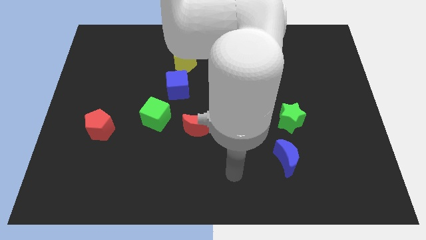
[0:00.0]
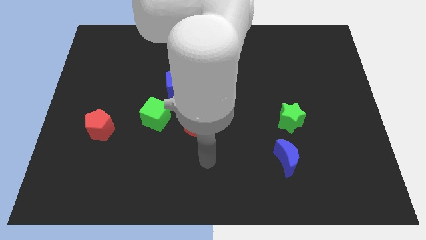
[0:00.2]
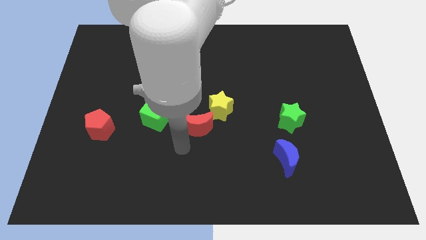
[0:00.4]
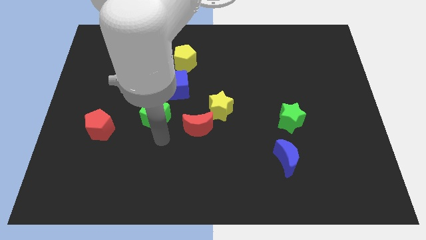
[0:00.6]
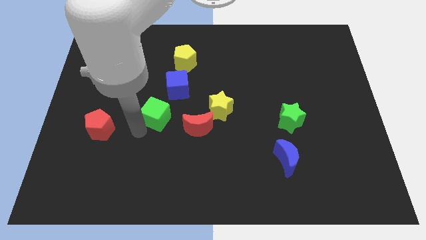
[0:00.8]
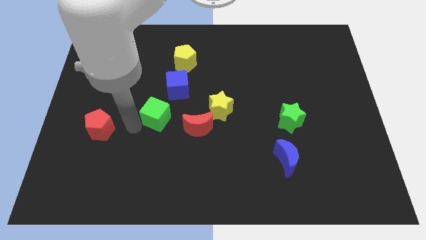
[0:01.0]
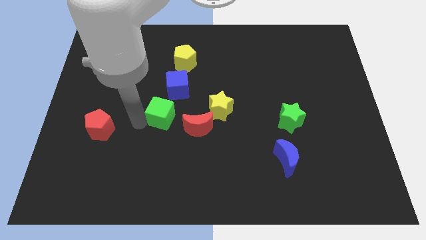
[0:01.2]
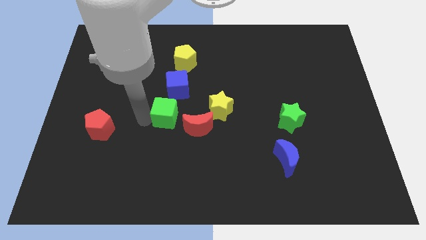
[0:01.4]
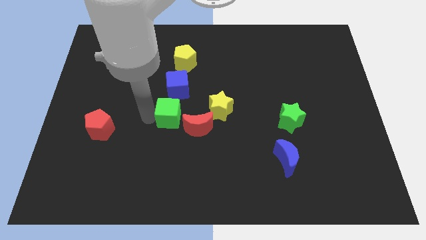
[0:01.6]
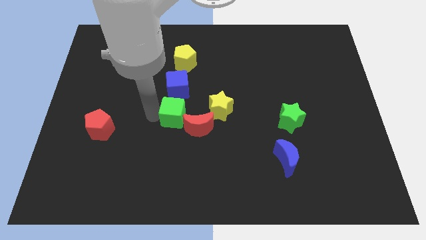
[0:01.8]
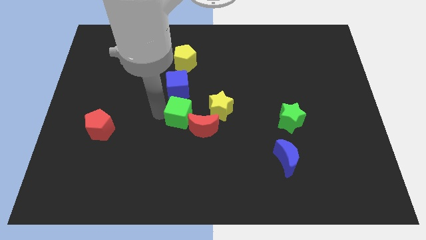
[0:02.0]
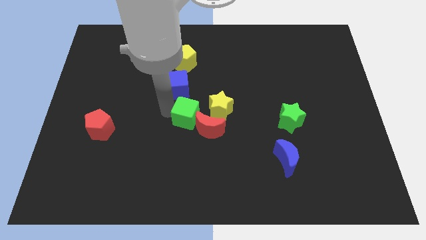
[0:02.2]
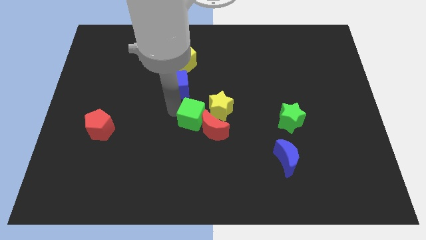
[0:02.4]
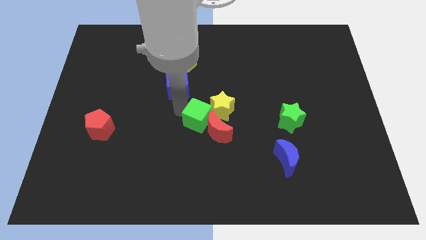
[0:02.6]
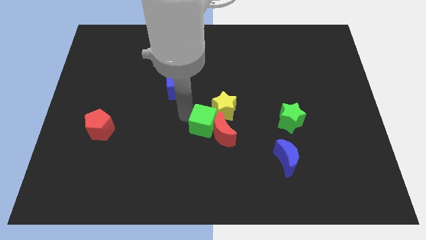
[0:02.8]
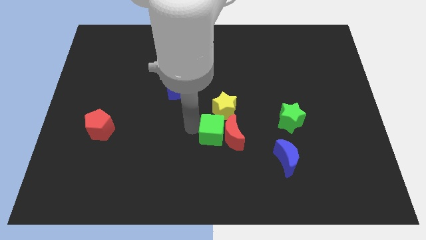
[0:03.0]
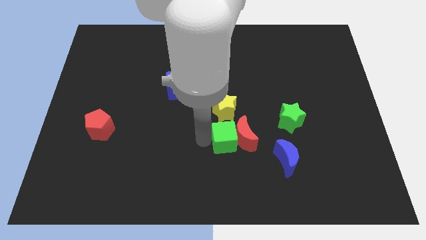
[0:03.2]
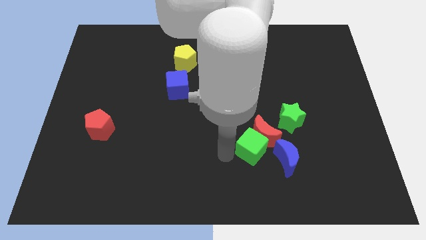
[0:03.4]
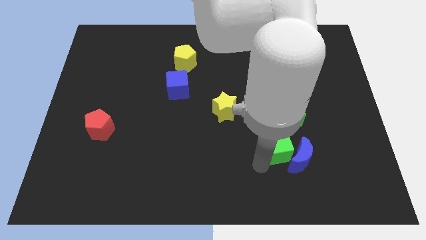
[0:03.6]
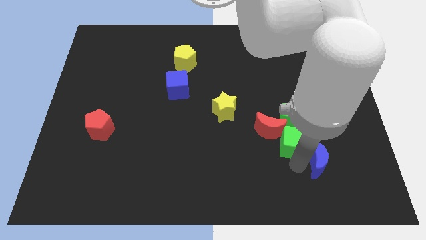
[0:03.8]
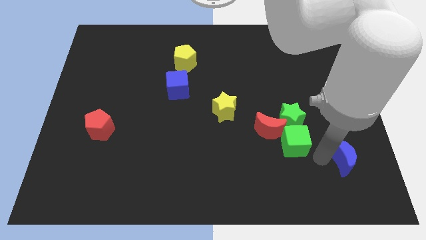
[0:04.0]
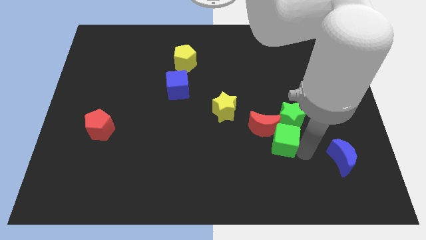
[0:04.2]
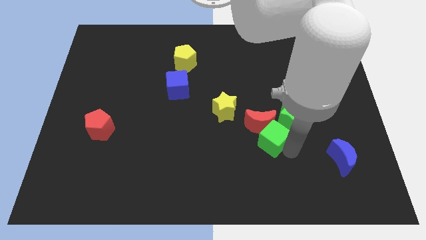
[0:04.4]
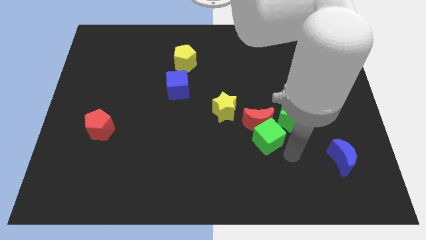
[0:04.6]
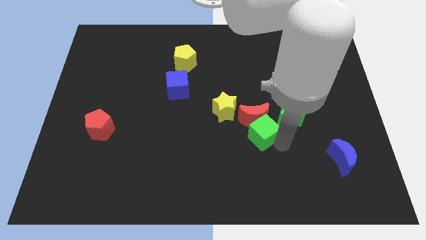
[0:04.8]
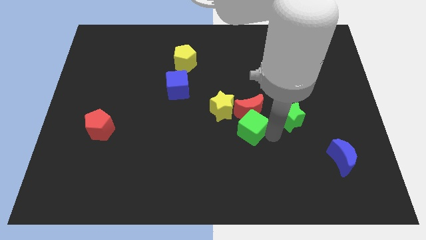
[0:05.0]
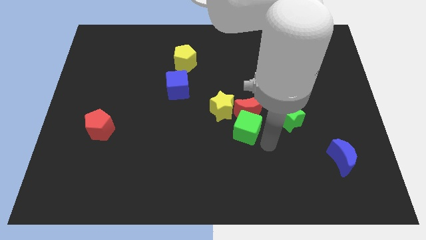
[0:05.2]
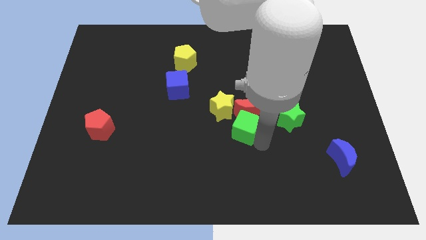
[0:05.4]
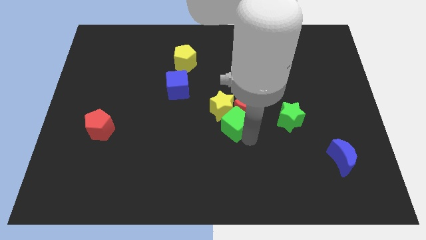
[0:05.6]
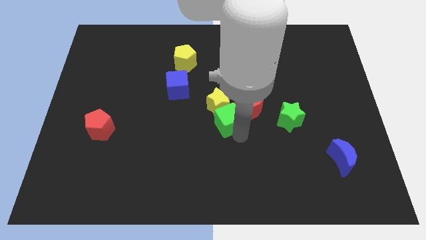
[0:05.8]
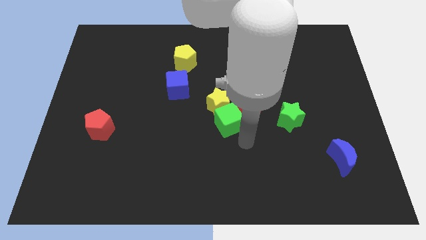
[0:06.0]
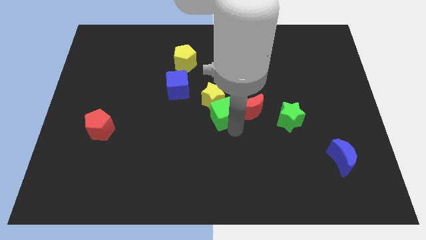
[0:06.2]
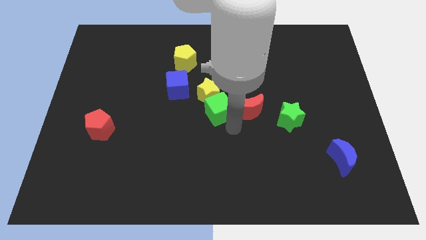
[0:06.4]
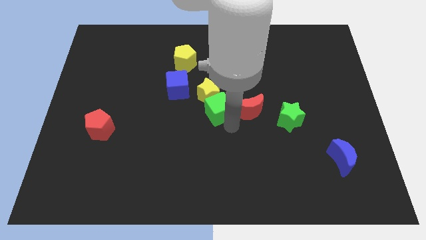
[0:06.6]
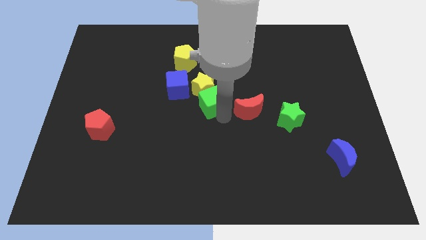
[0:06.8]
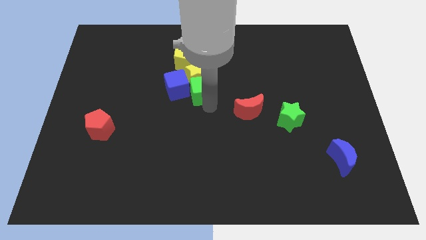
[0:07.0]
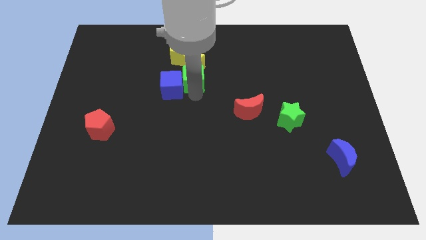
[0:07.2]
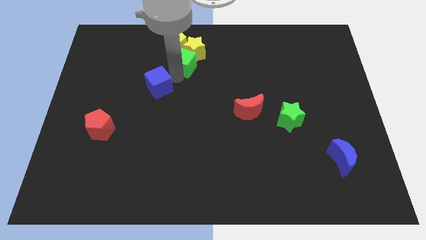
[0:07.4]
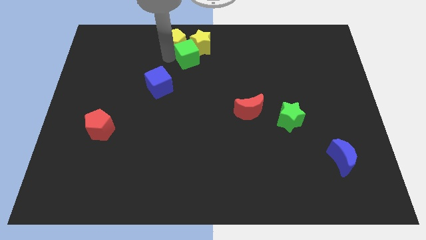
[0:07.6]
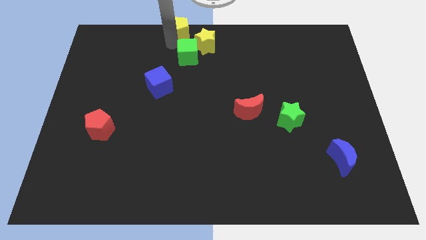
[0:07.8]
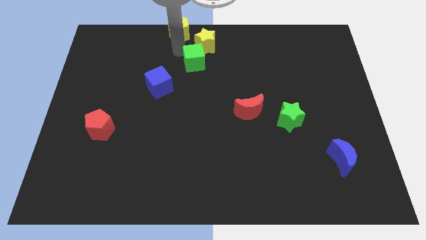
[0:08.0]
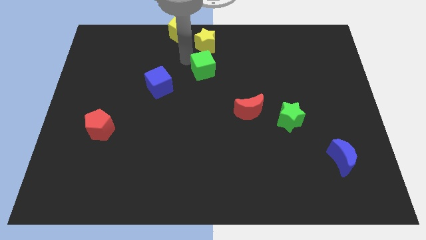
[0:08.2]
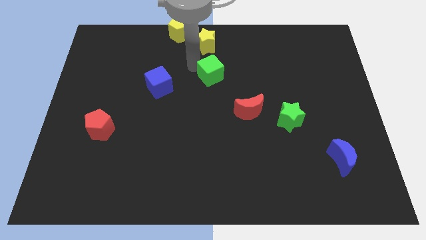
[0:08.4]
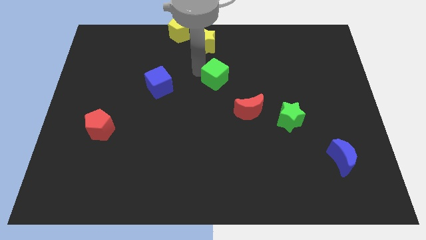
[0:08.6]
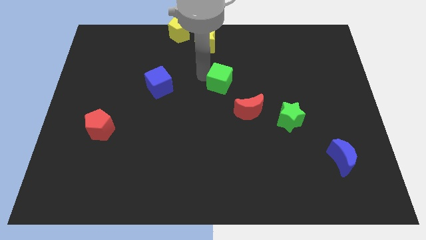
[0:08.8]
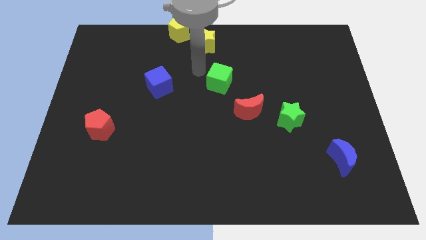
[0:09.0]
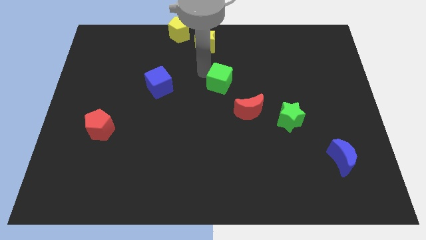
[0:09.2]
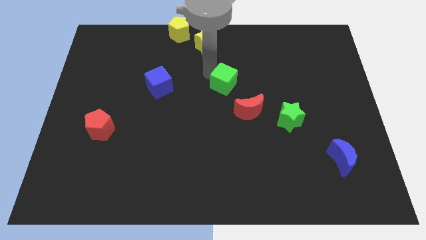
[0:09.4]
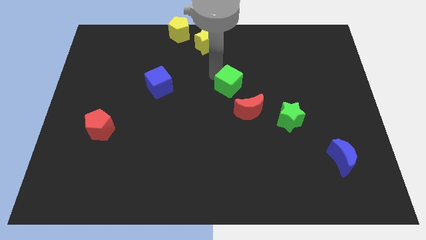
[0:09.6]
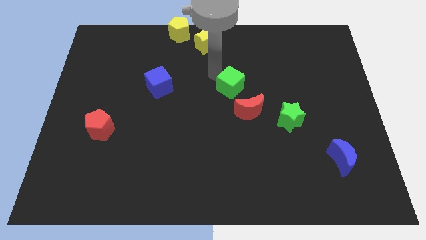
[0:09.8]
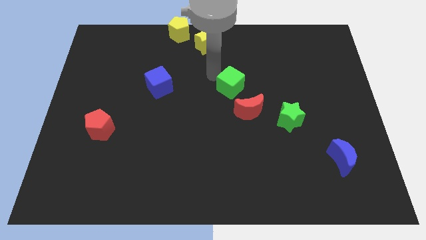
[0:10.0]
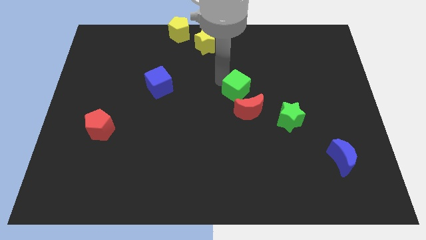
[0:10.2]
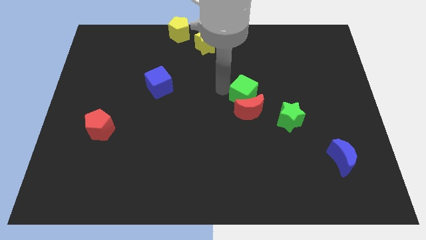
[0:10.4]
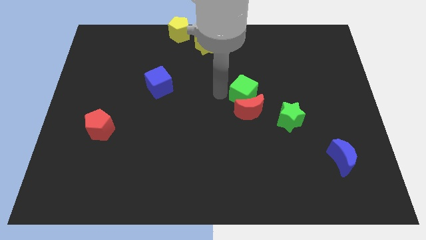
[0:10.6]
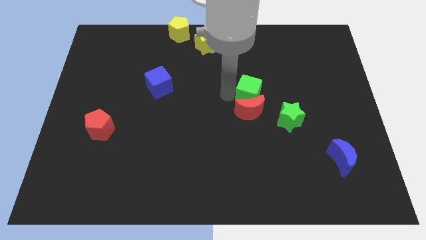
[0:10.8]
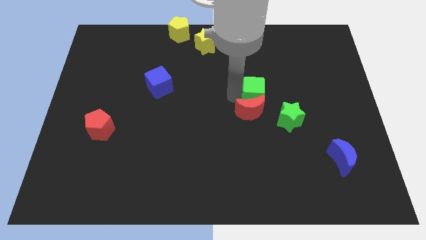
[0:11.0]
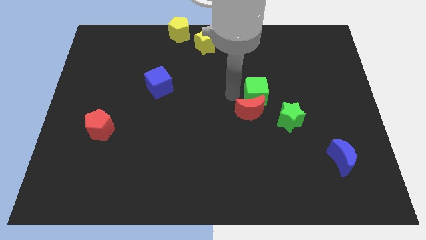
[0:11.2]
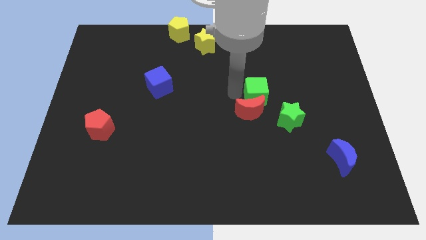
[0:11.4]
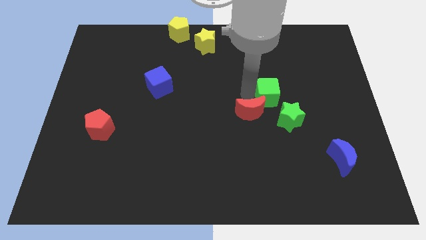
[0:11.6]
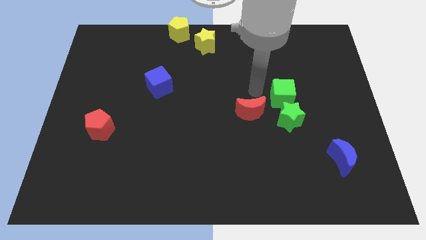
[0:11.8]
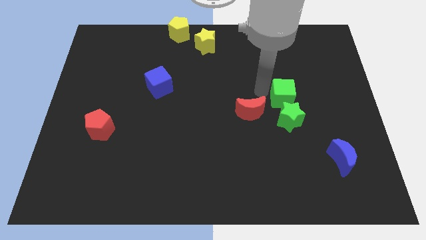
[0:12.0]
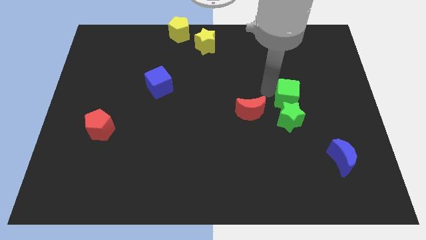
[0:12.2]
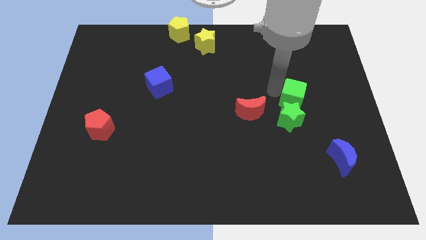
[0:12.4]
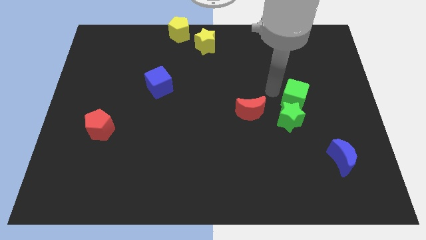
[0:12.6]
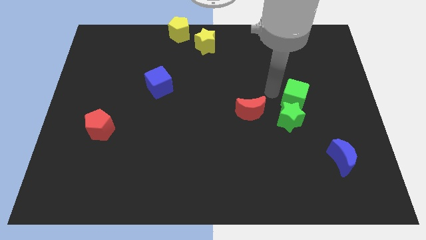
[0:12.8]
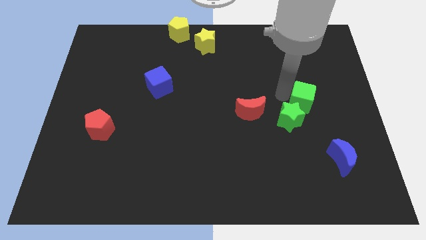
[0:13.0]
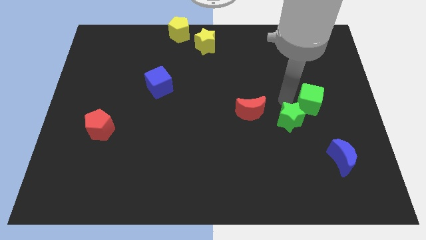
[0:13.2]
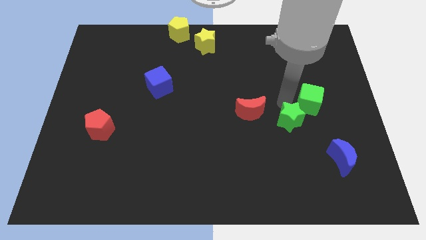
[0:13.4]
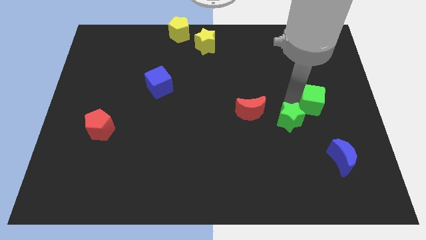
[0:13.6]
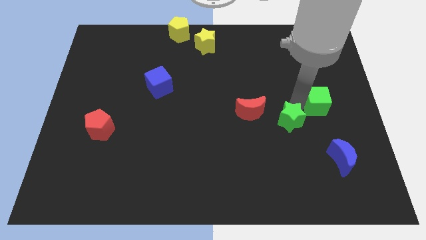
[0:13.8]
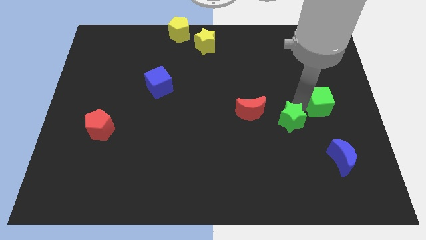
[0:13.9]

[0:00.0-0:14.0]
put the green cube to the center right
